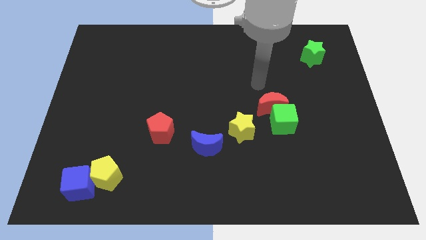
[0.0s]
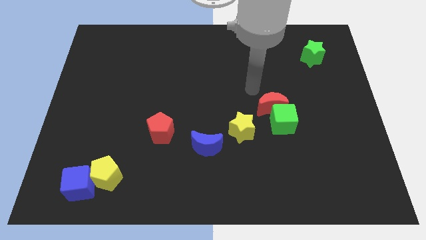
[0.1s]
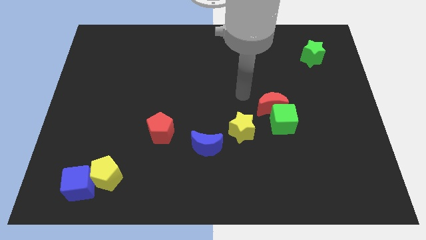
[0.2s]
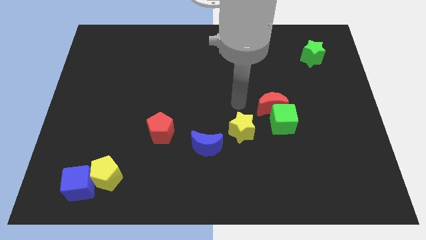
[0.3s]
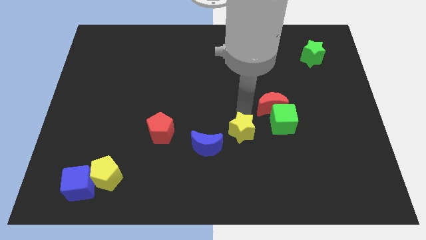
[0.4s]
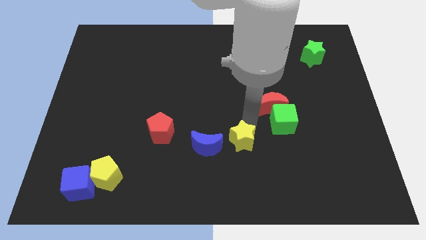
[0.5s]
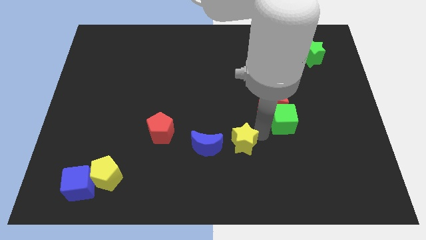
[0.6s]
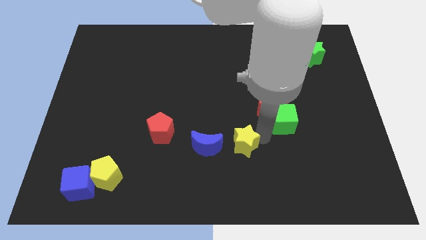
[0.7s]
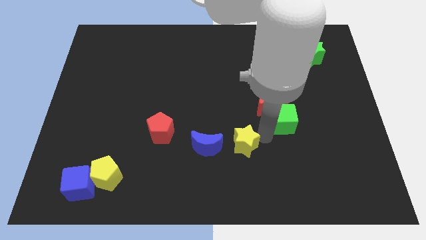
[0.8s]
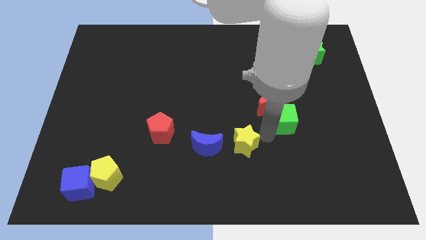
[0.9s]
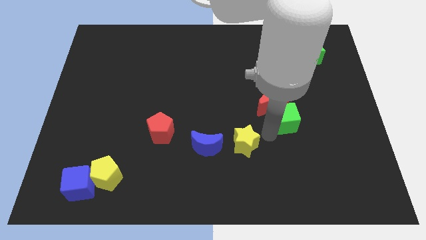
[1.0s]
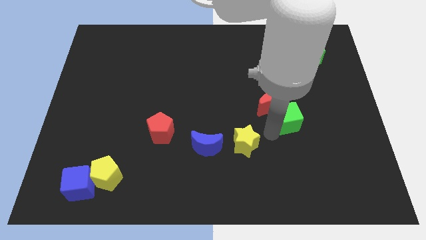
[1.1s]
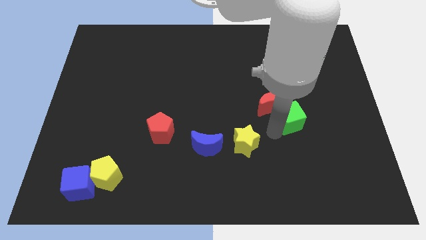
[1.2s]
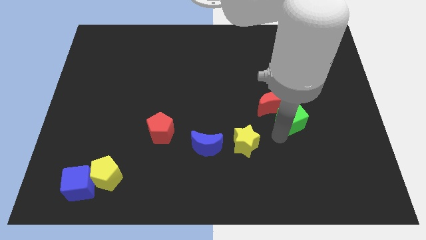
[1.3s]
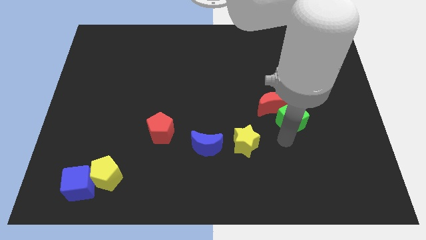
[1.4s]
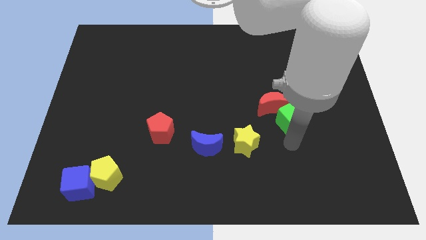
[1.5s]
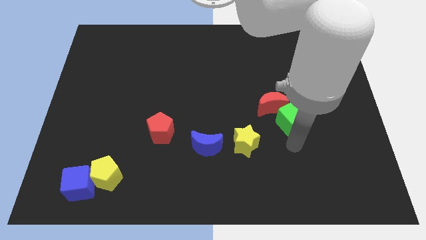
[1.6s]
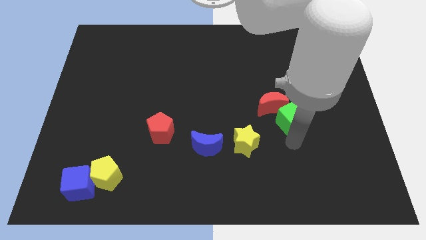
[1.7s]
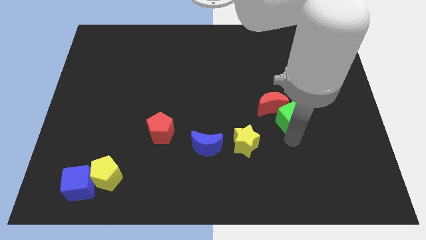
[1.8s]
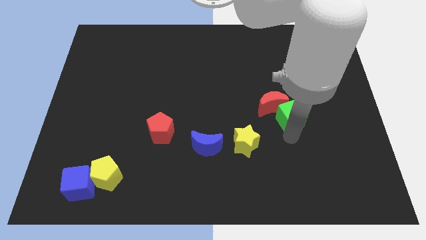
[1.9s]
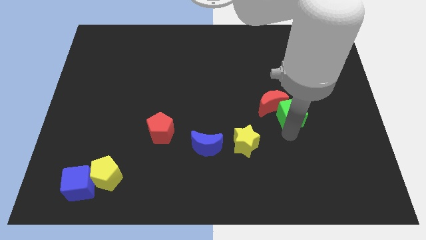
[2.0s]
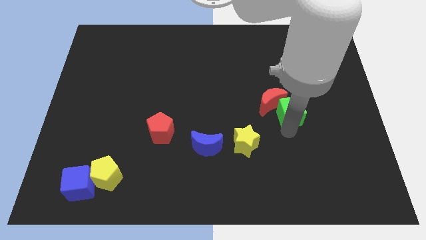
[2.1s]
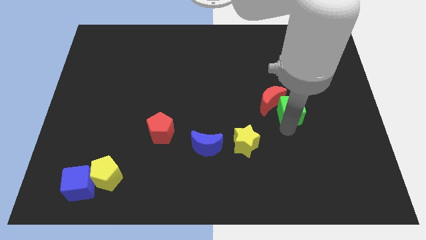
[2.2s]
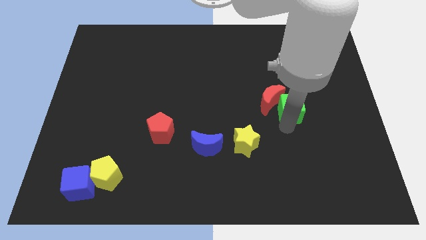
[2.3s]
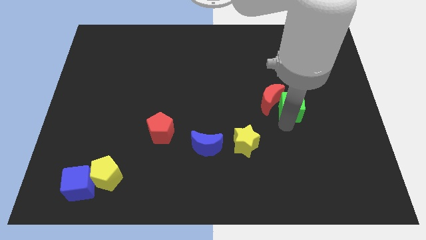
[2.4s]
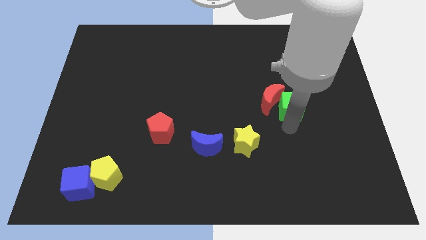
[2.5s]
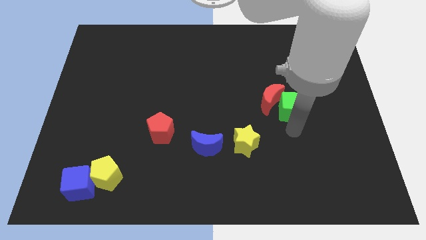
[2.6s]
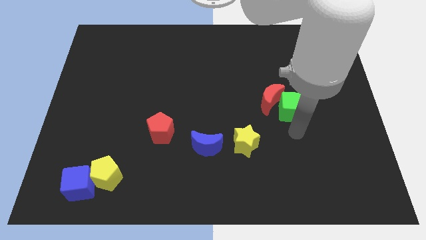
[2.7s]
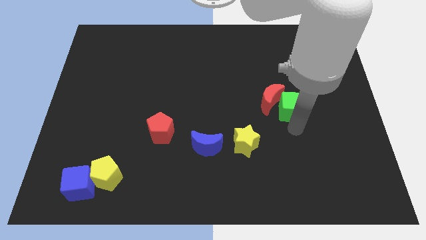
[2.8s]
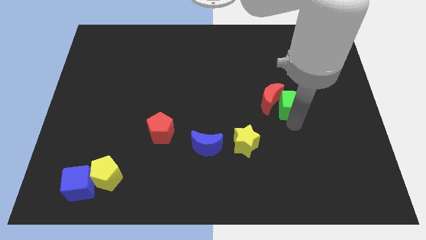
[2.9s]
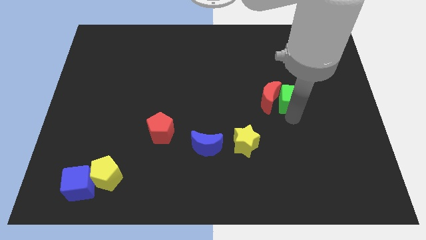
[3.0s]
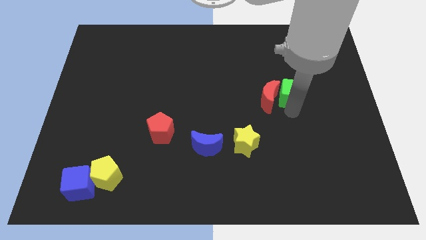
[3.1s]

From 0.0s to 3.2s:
slide the green cube slightly up

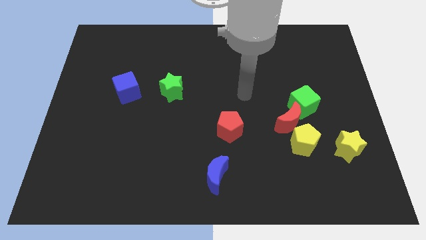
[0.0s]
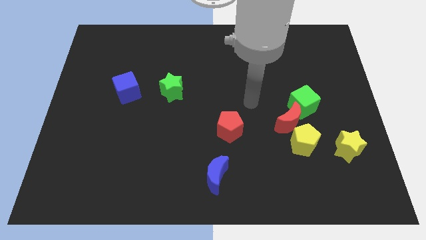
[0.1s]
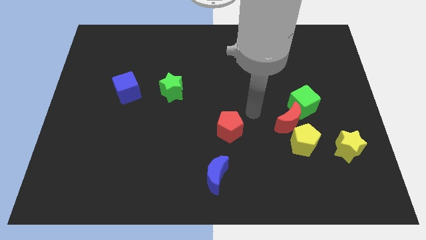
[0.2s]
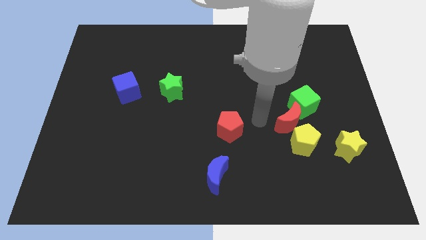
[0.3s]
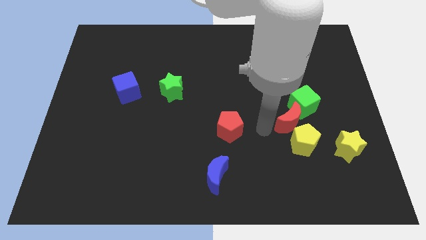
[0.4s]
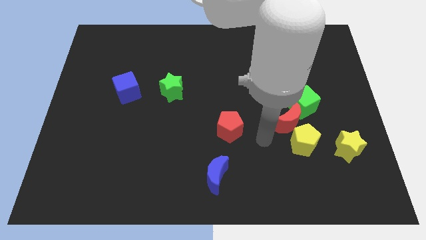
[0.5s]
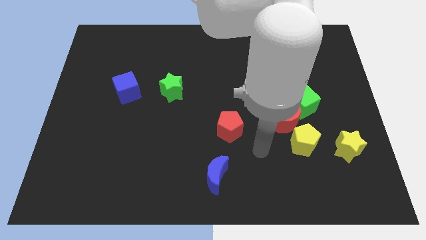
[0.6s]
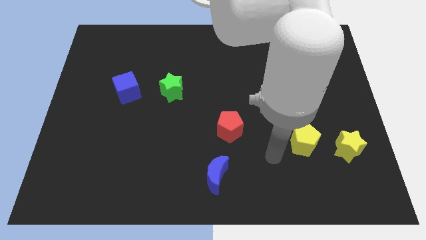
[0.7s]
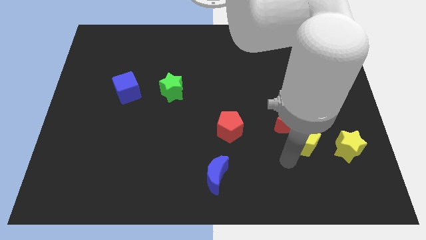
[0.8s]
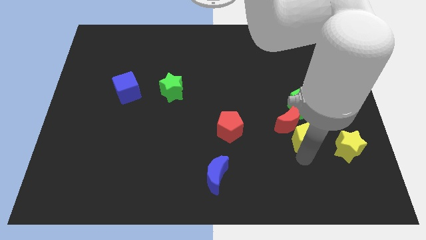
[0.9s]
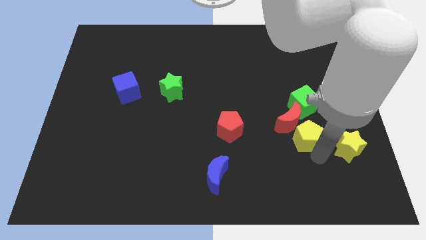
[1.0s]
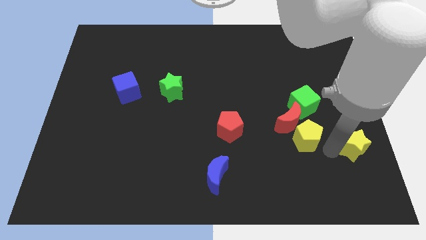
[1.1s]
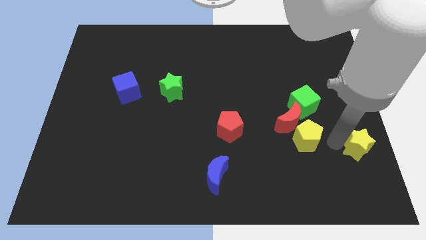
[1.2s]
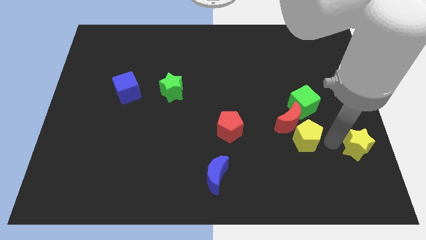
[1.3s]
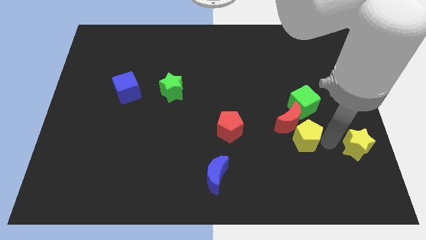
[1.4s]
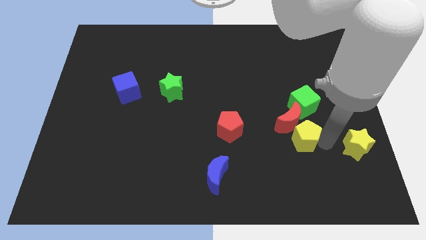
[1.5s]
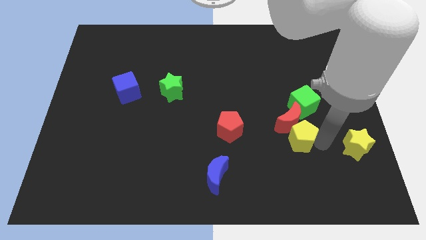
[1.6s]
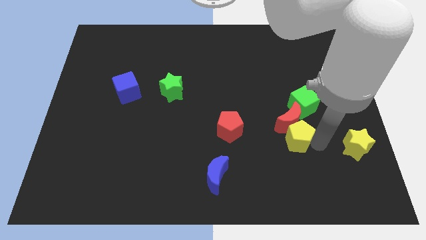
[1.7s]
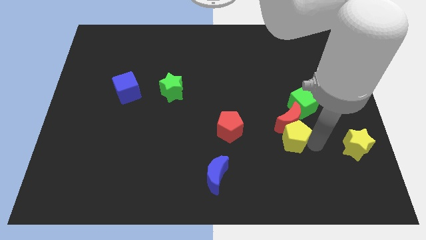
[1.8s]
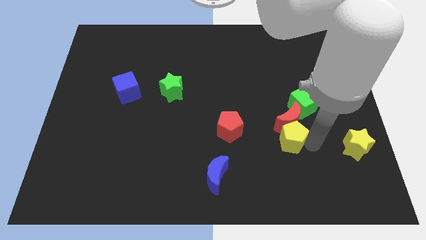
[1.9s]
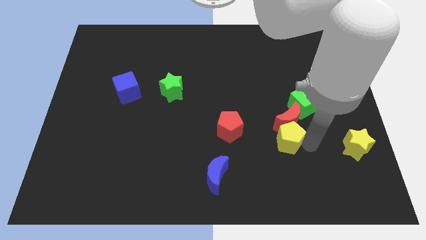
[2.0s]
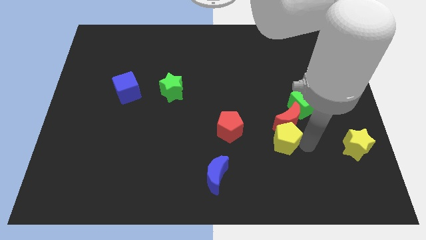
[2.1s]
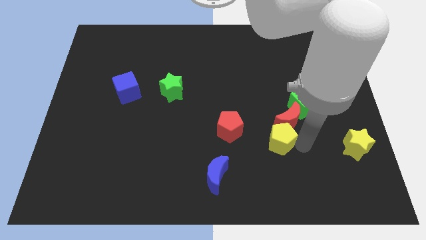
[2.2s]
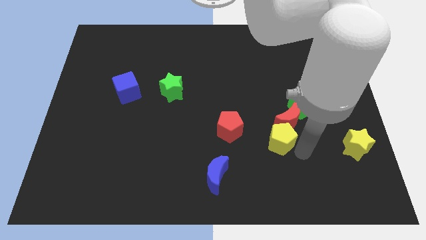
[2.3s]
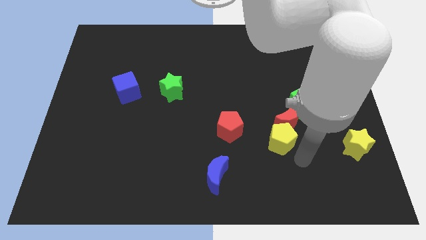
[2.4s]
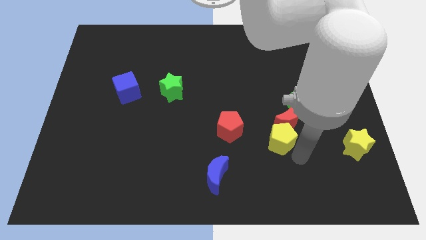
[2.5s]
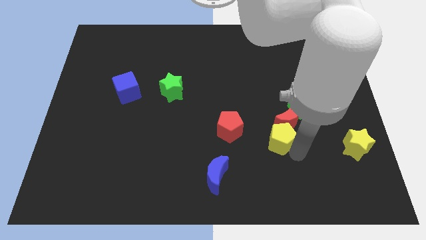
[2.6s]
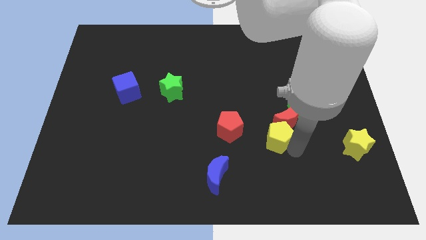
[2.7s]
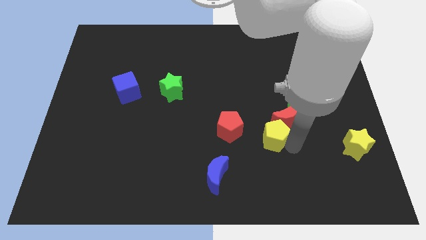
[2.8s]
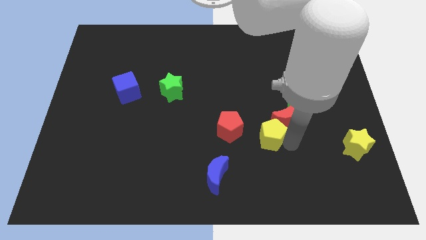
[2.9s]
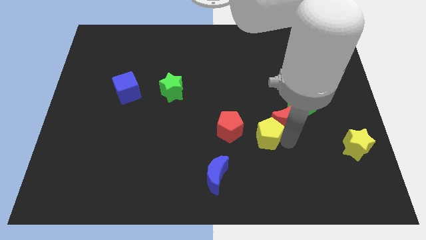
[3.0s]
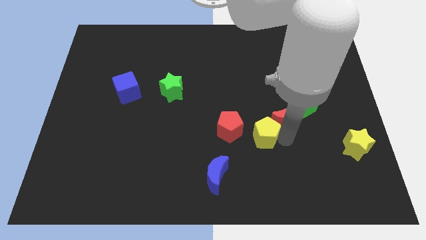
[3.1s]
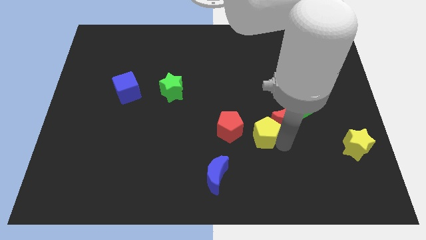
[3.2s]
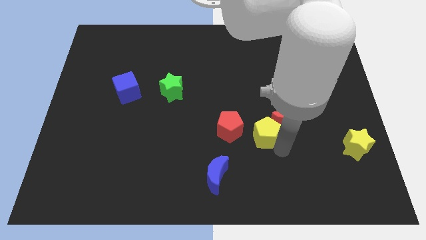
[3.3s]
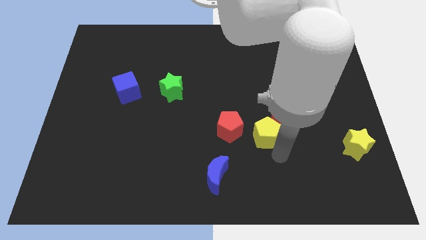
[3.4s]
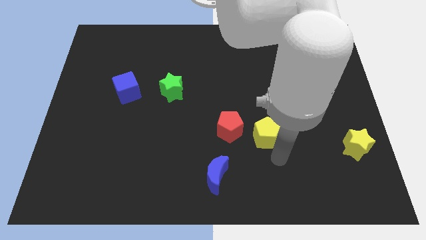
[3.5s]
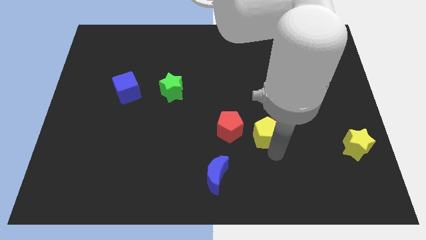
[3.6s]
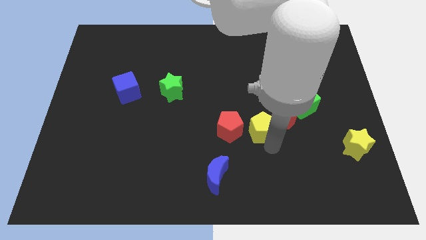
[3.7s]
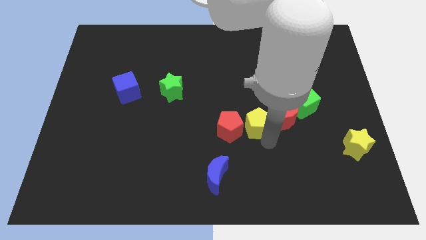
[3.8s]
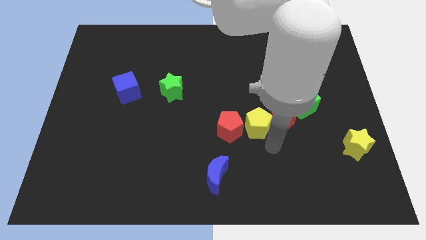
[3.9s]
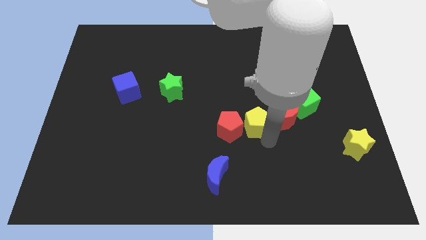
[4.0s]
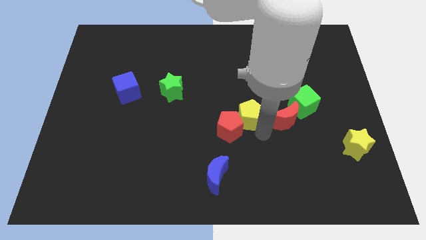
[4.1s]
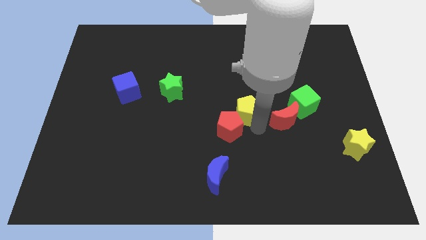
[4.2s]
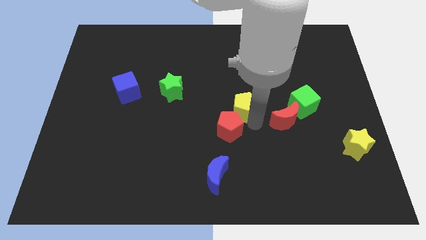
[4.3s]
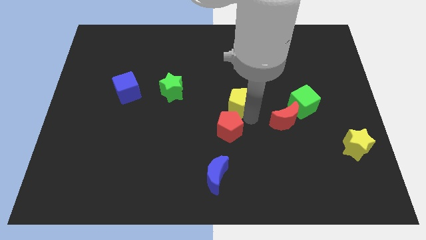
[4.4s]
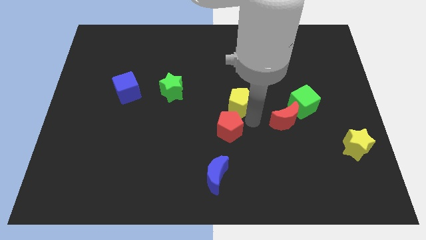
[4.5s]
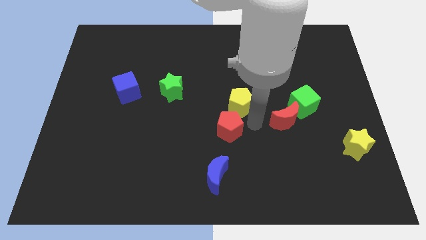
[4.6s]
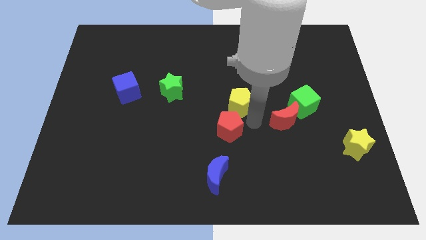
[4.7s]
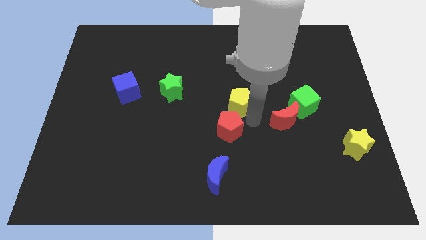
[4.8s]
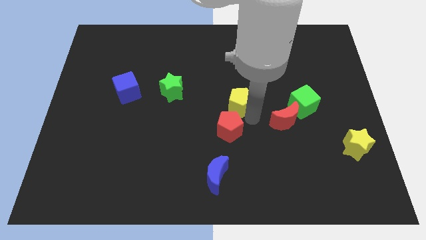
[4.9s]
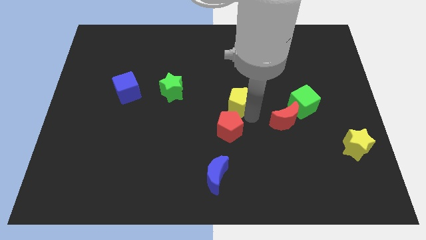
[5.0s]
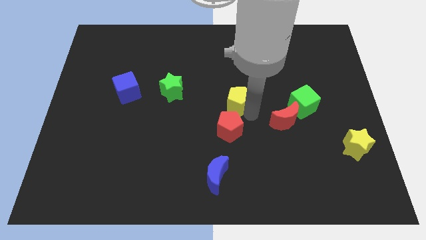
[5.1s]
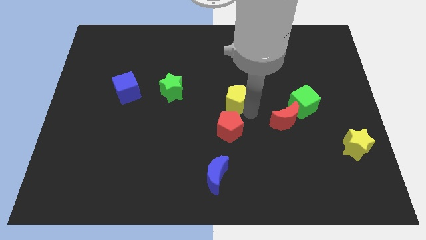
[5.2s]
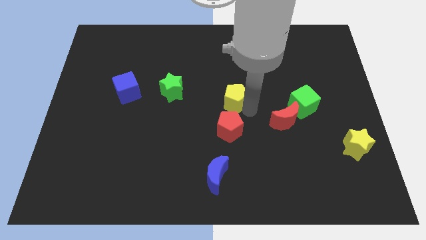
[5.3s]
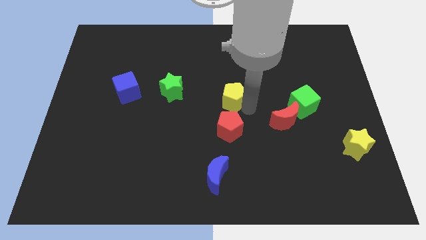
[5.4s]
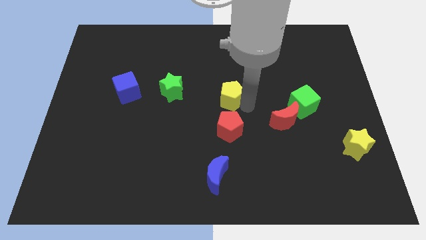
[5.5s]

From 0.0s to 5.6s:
push the yellow pentagon up and left

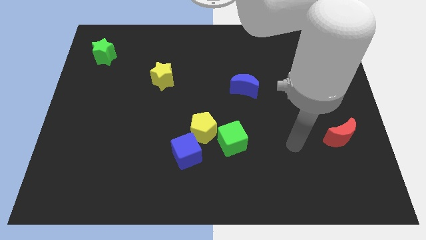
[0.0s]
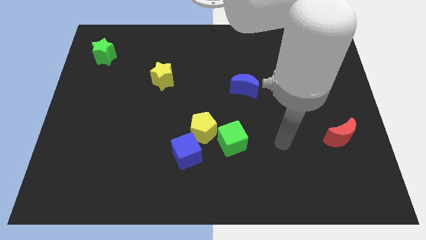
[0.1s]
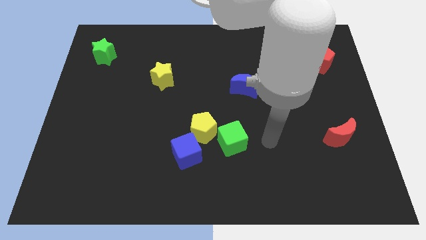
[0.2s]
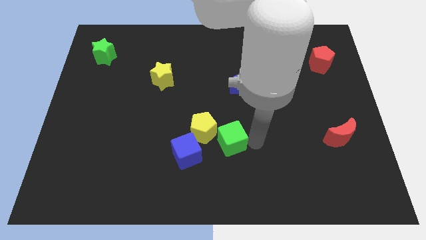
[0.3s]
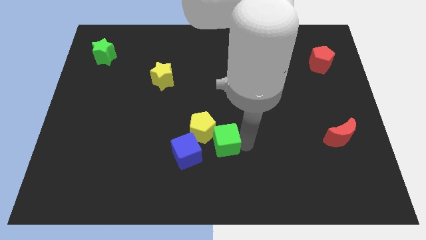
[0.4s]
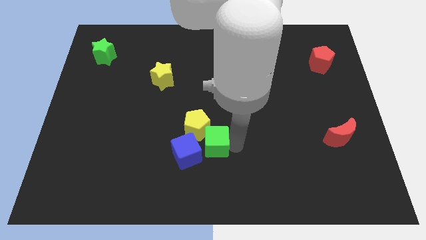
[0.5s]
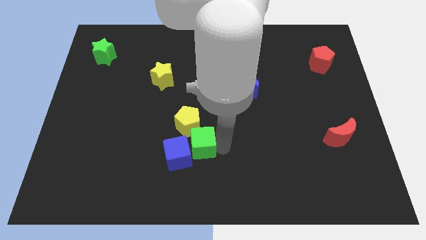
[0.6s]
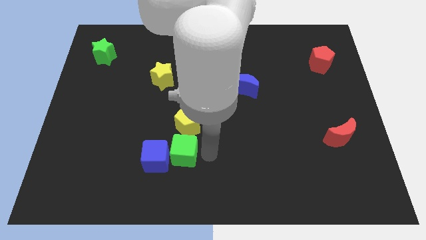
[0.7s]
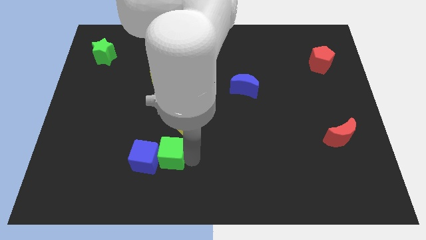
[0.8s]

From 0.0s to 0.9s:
slide the blue cube somewhat left
